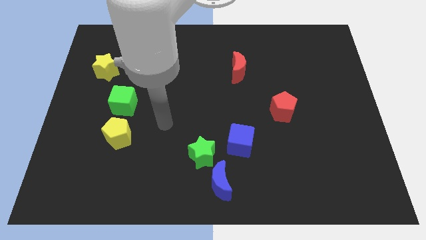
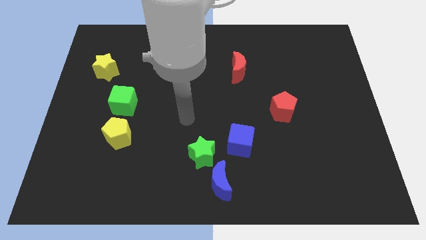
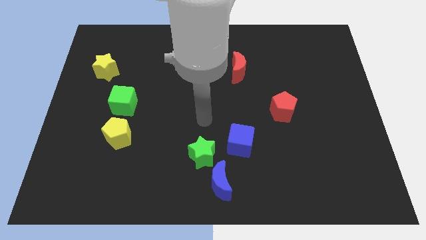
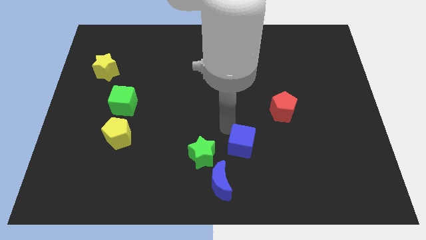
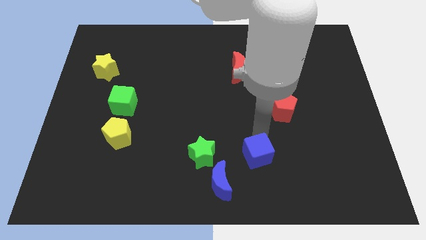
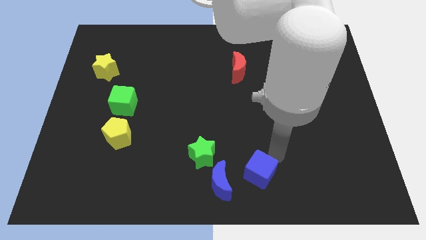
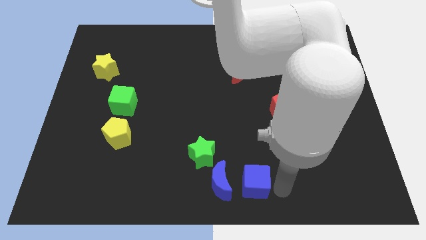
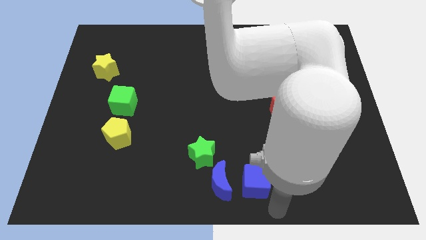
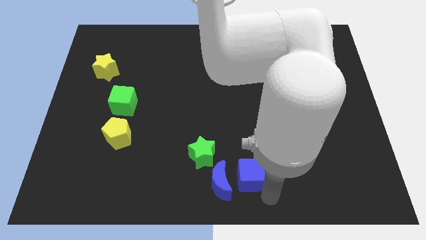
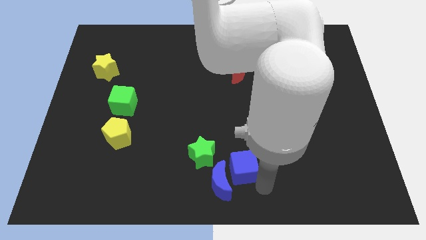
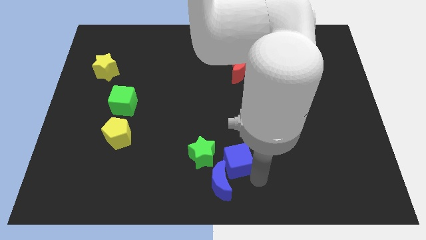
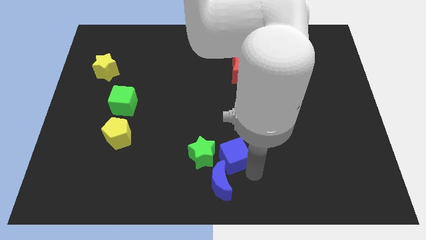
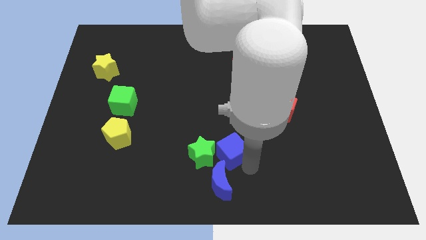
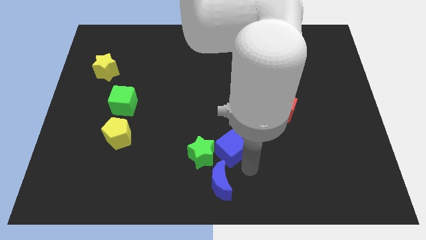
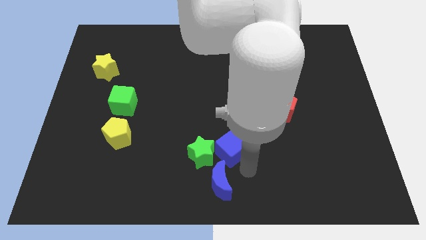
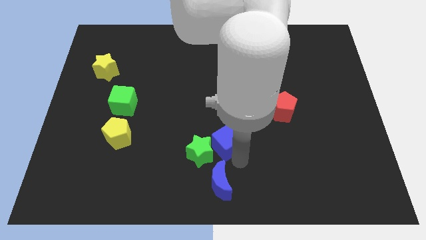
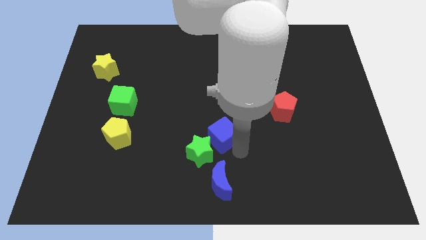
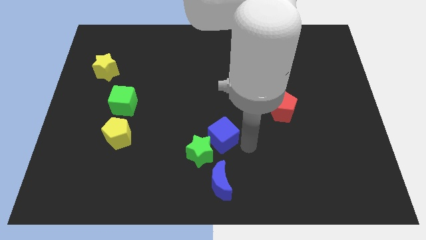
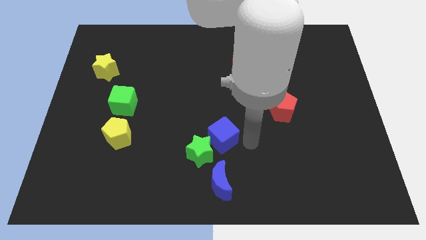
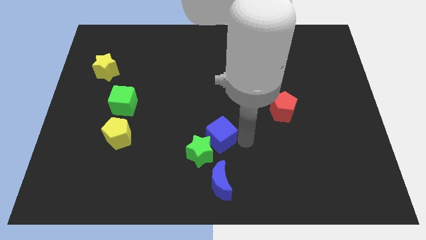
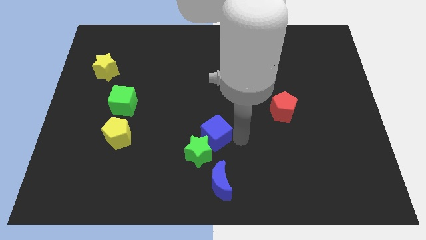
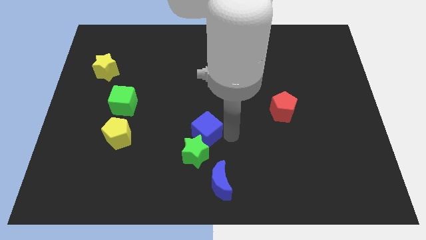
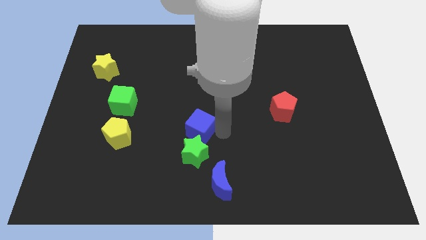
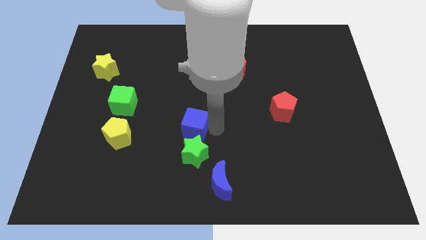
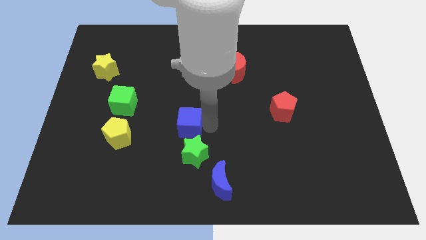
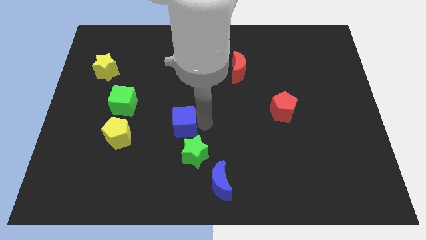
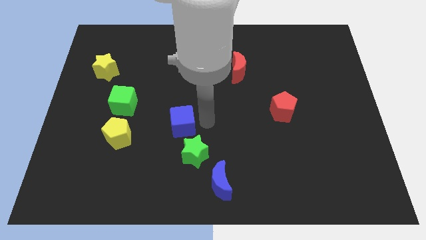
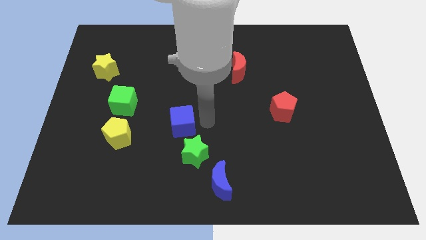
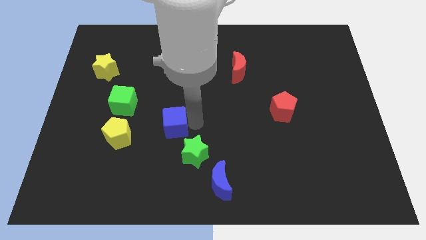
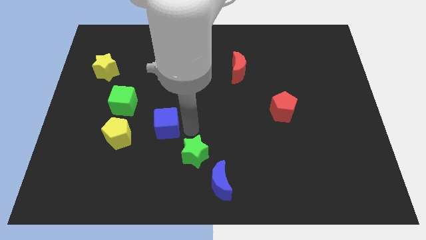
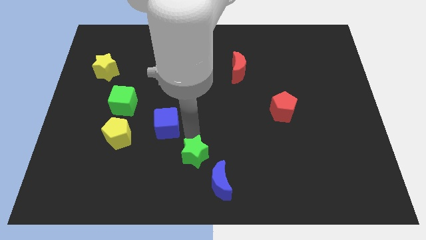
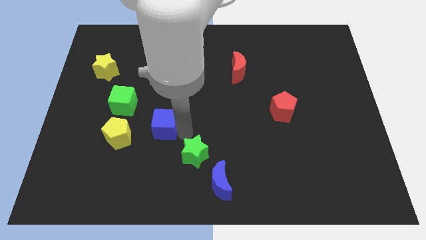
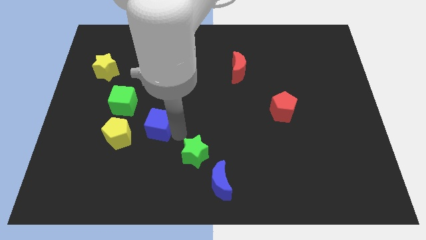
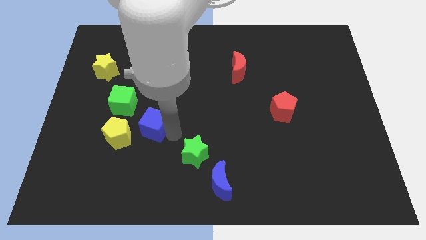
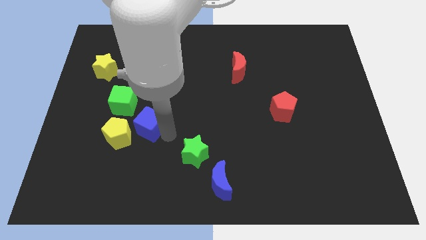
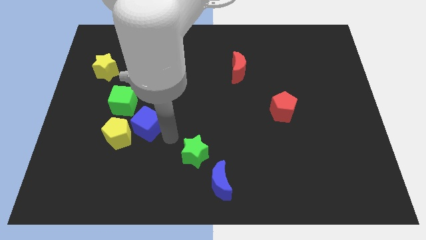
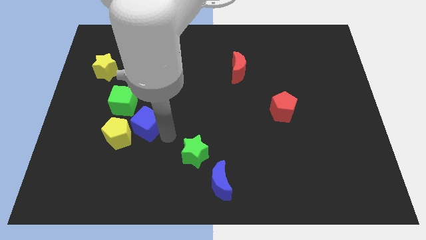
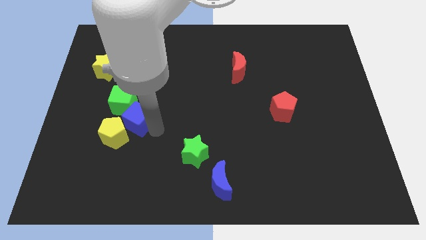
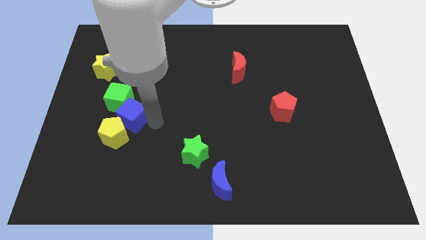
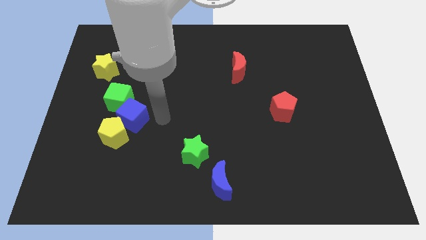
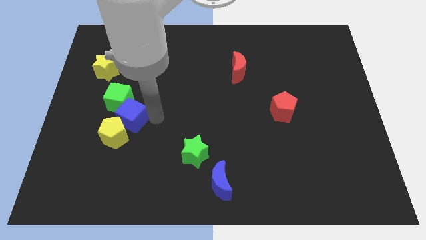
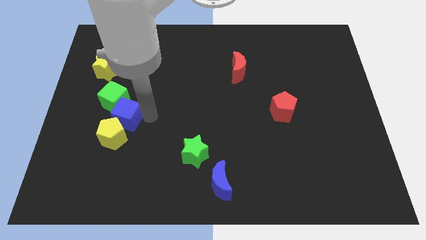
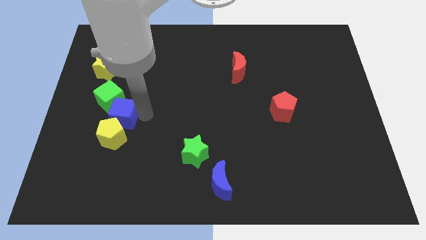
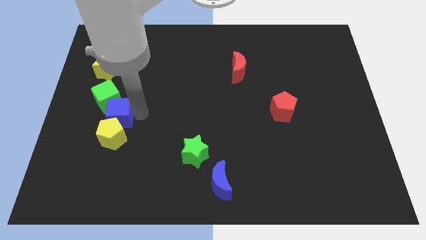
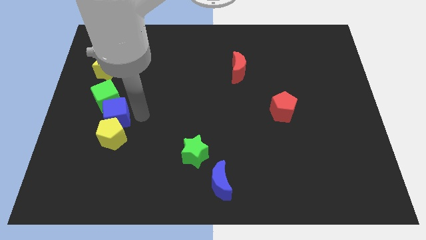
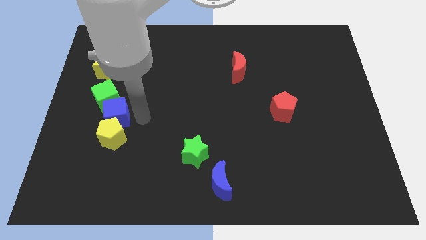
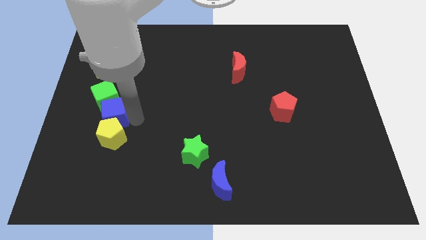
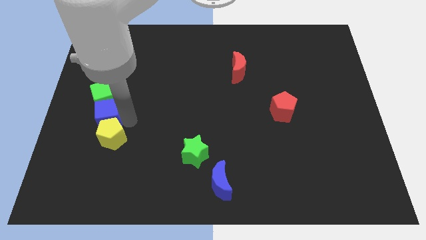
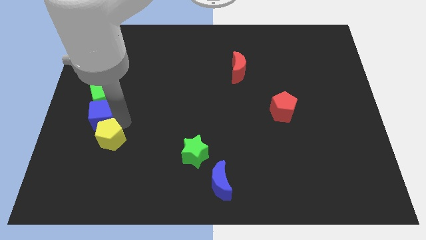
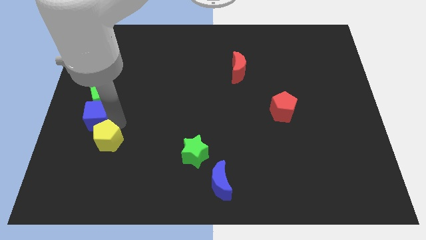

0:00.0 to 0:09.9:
push the blue cube to the left side of the board

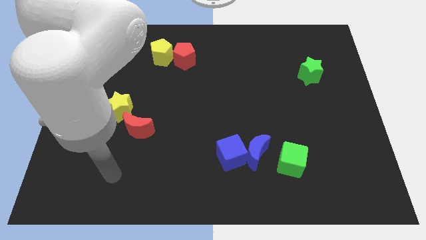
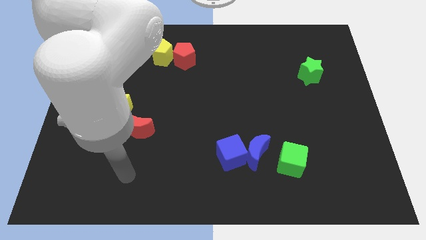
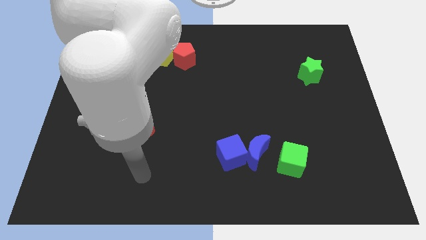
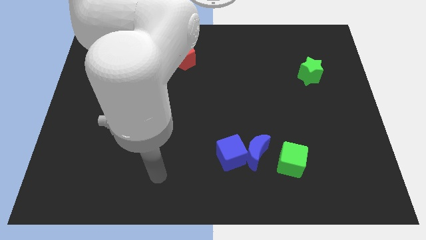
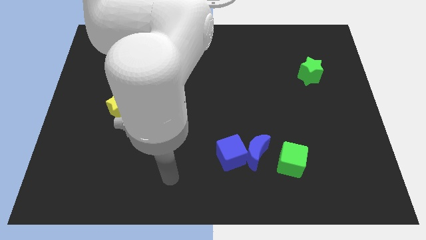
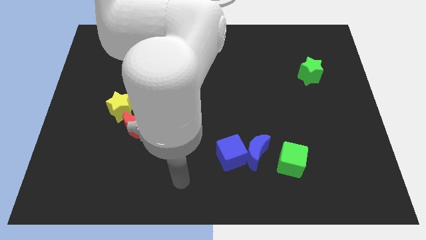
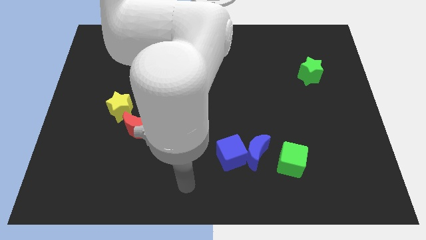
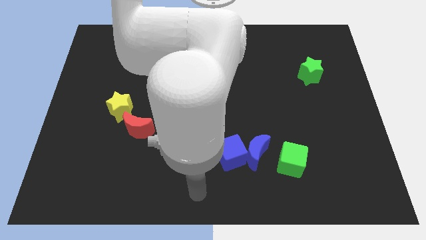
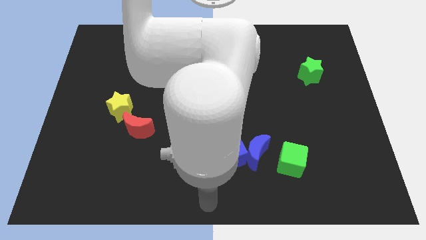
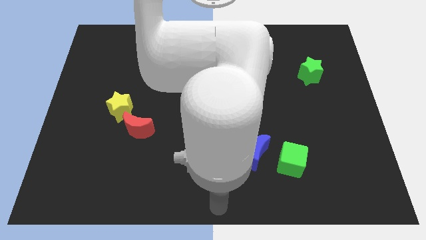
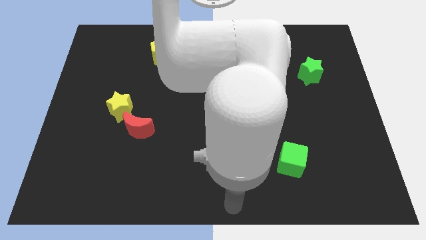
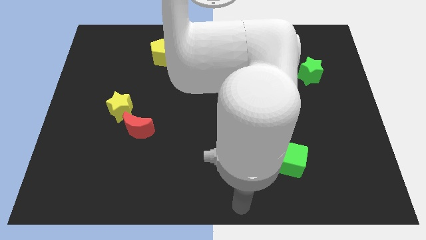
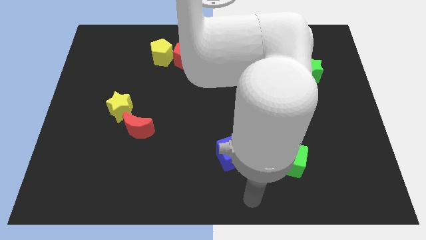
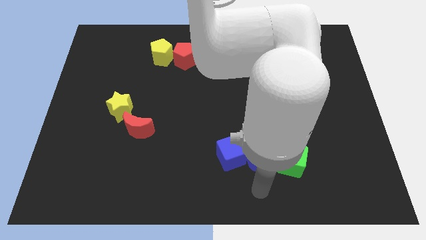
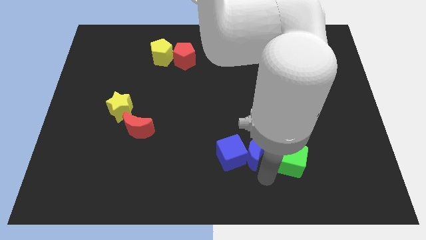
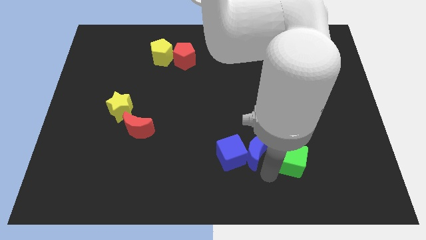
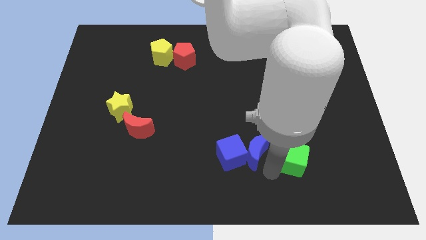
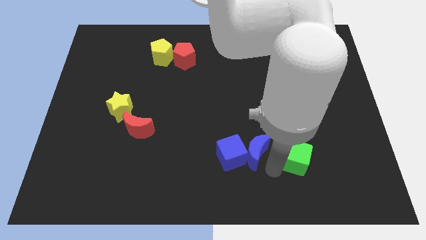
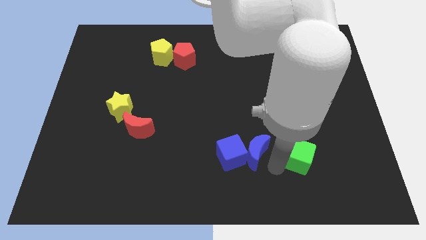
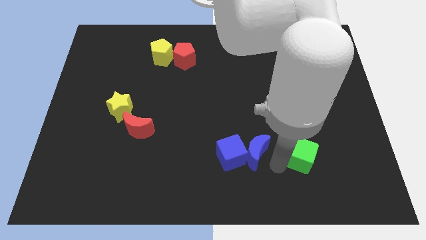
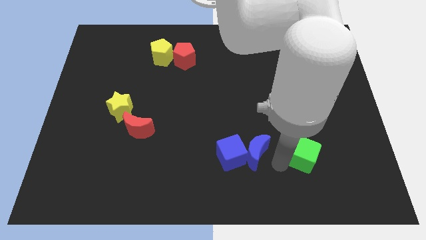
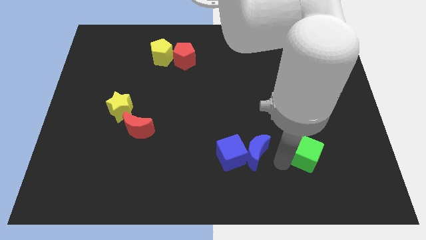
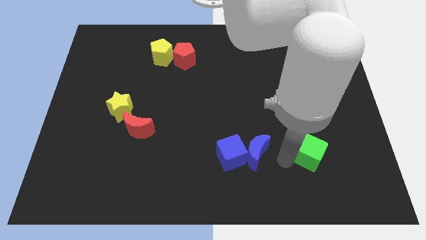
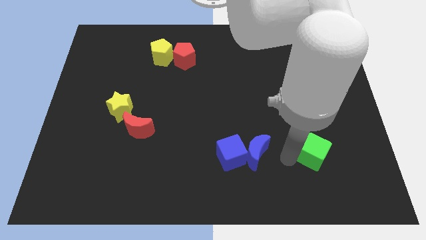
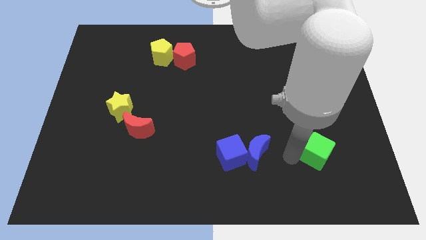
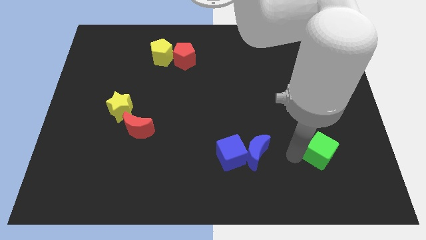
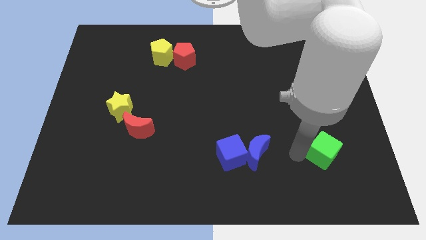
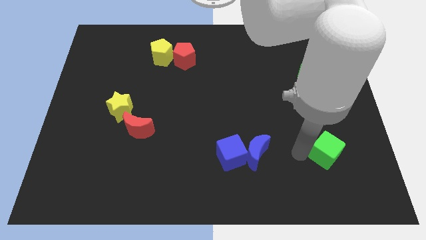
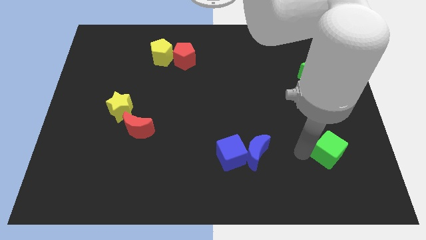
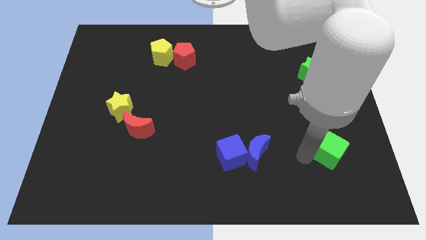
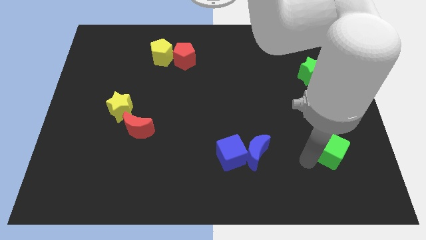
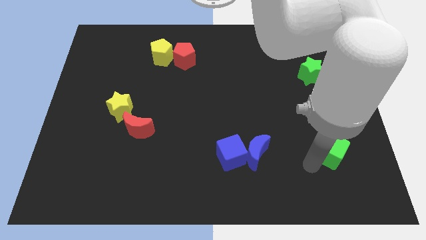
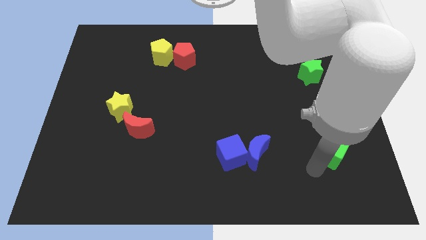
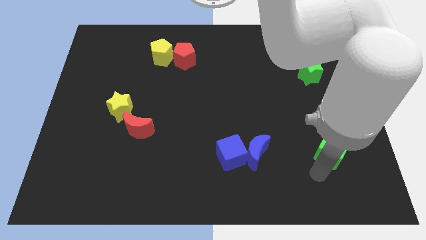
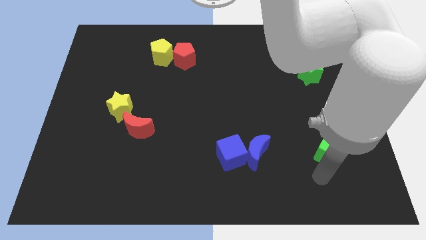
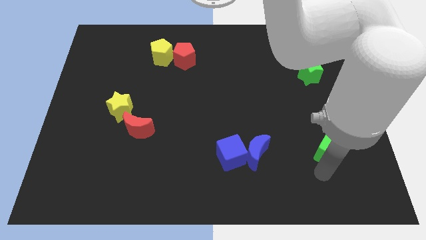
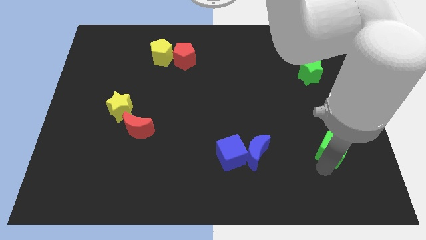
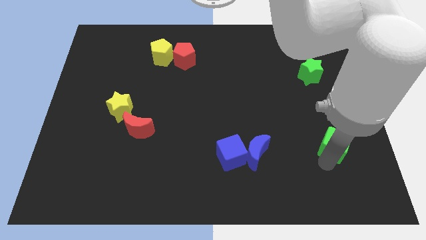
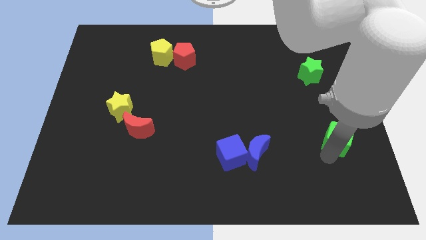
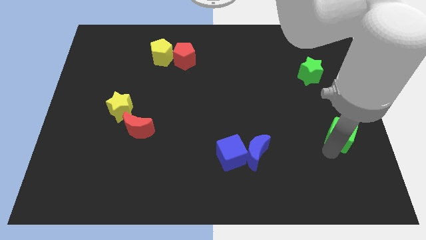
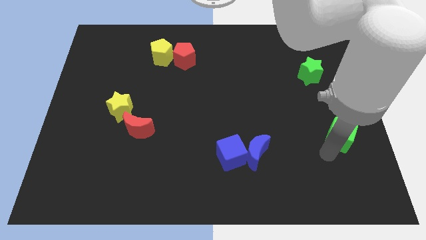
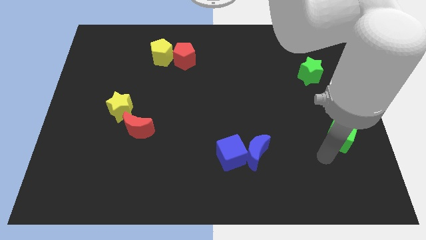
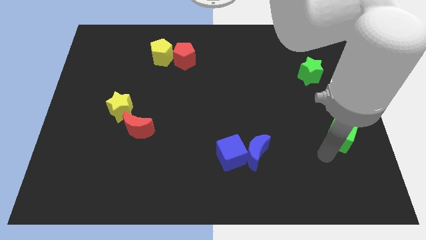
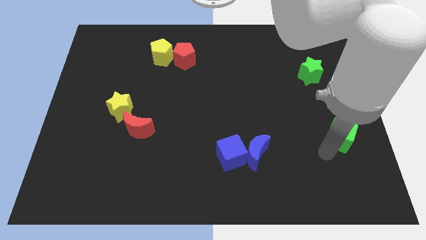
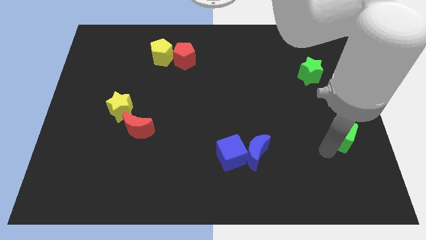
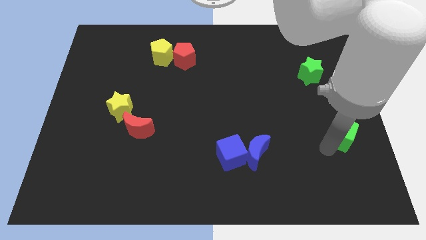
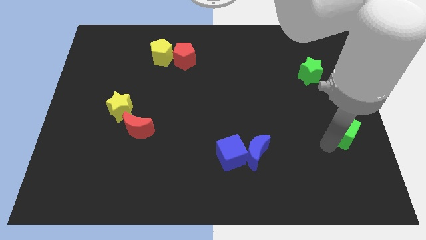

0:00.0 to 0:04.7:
slide the green cube to the center right
